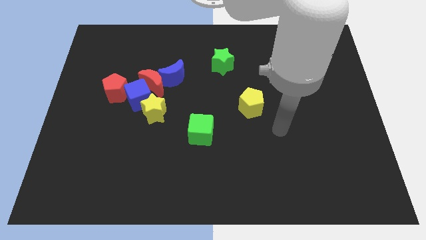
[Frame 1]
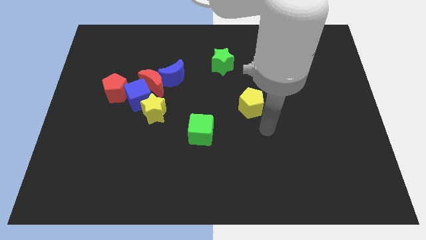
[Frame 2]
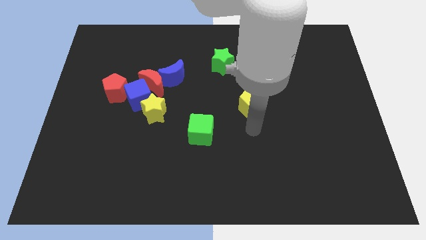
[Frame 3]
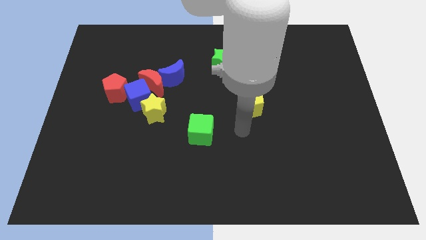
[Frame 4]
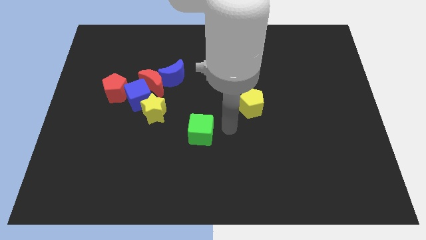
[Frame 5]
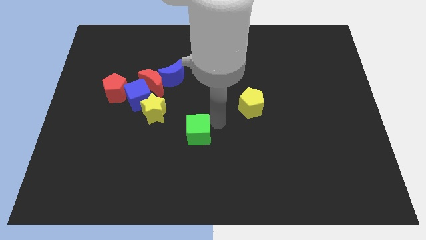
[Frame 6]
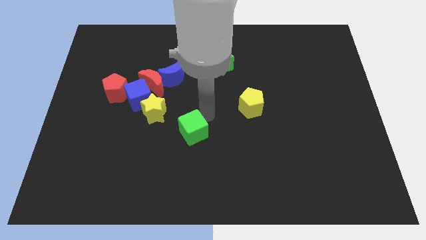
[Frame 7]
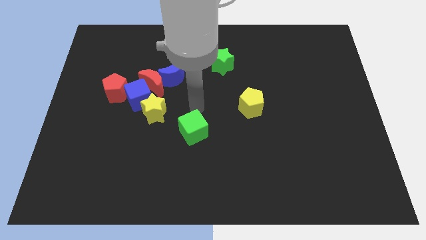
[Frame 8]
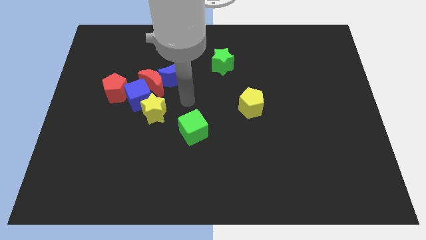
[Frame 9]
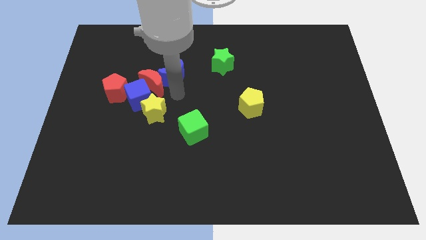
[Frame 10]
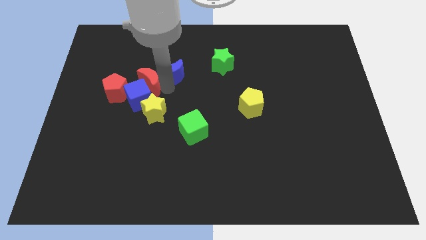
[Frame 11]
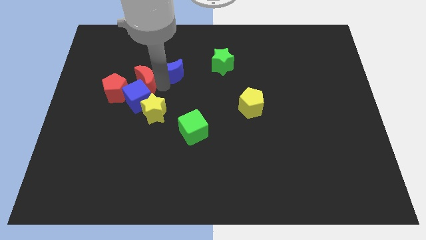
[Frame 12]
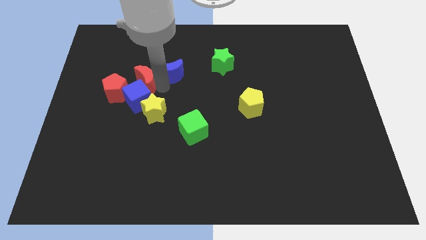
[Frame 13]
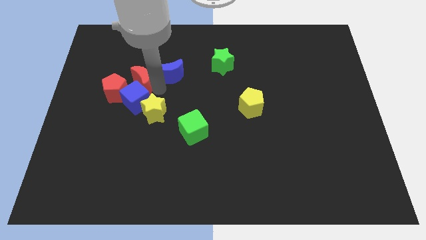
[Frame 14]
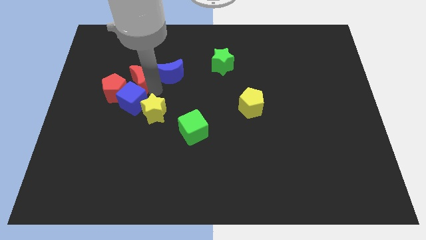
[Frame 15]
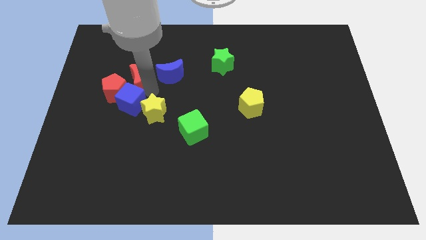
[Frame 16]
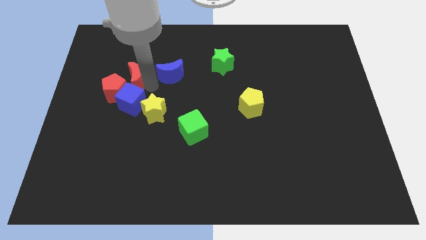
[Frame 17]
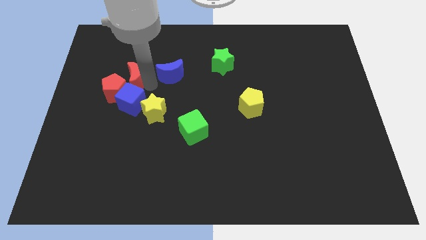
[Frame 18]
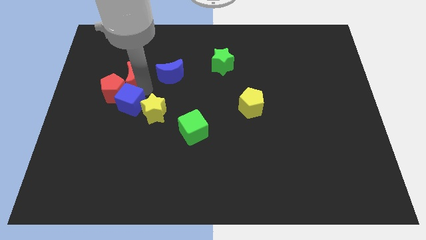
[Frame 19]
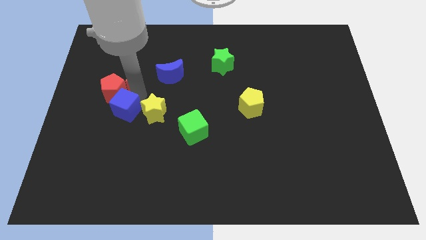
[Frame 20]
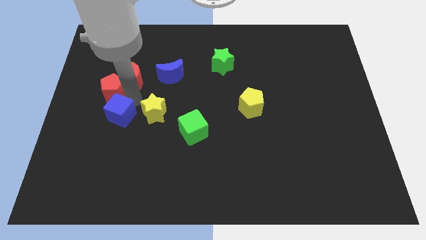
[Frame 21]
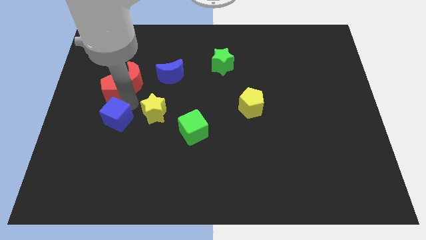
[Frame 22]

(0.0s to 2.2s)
move the blue cube away from the clump

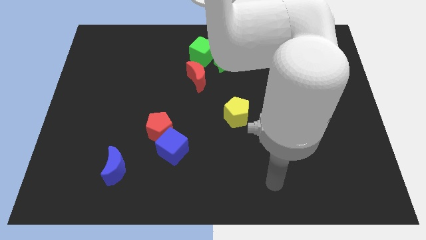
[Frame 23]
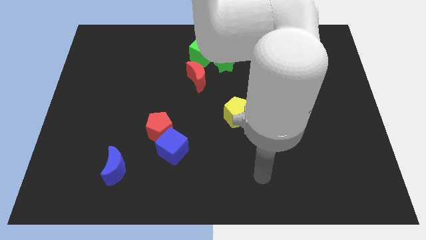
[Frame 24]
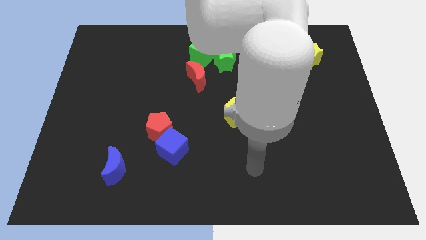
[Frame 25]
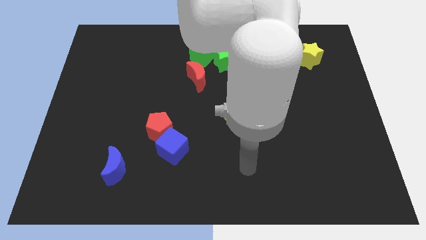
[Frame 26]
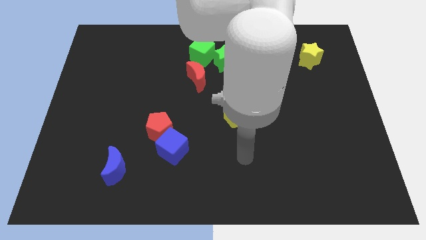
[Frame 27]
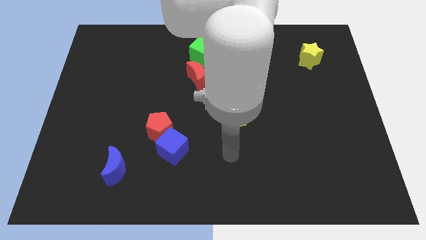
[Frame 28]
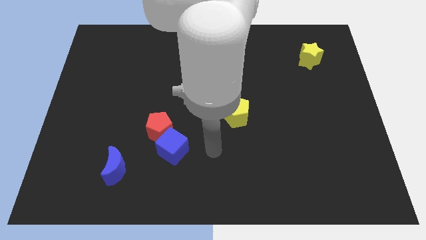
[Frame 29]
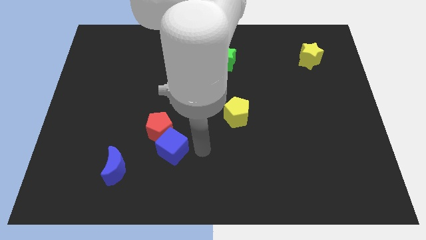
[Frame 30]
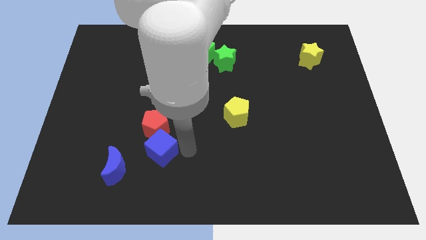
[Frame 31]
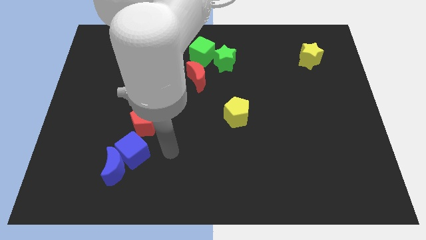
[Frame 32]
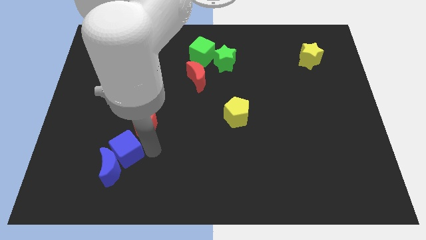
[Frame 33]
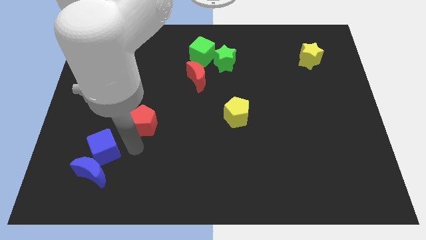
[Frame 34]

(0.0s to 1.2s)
pull the red pentagon apart from the blue cube

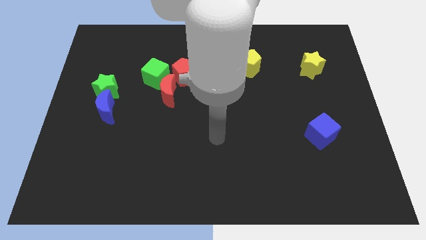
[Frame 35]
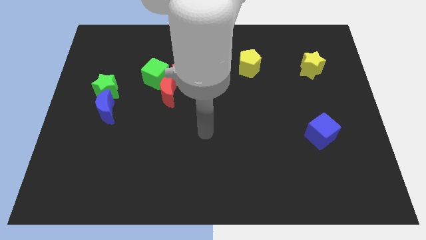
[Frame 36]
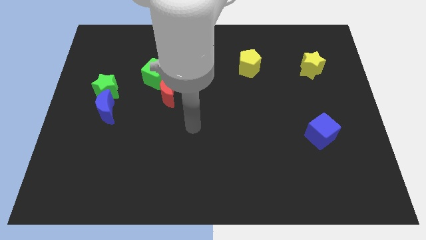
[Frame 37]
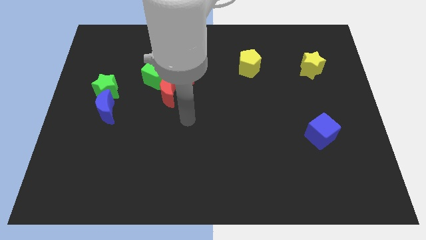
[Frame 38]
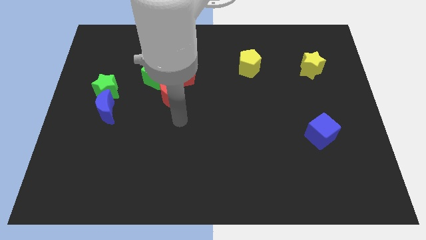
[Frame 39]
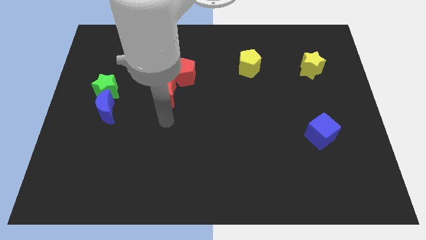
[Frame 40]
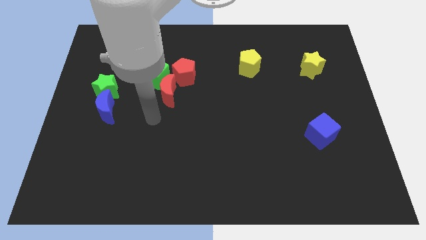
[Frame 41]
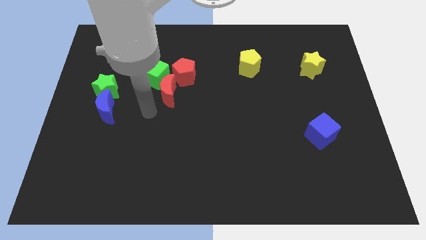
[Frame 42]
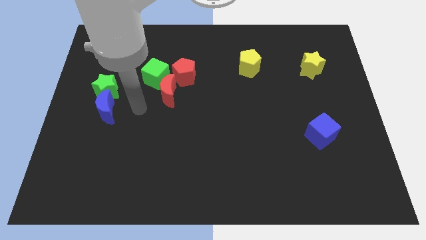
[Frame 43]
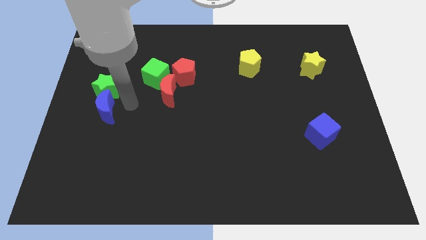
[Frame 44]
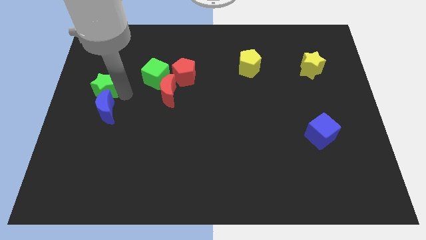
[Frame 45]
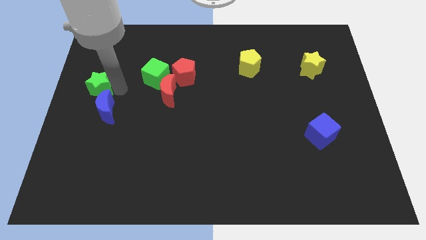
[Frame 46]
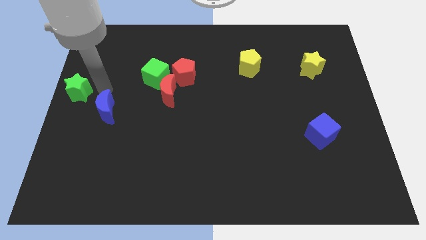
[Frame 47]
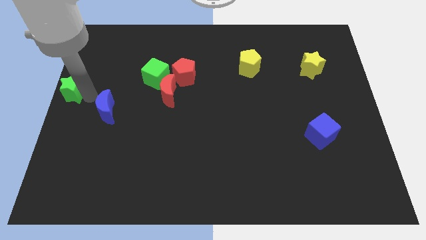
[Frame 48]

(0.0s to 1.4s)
pull the blue moon apart from the green star

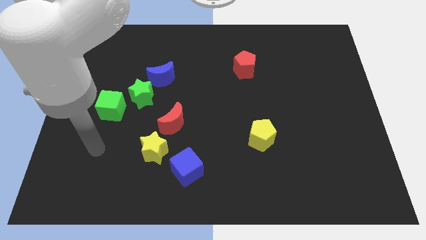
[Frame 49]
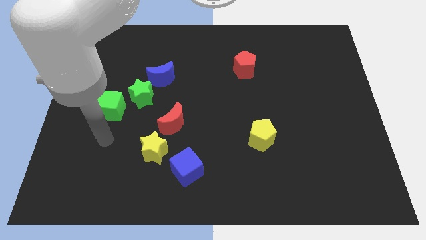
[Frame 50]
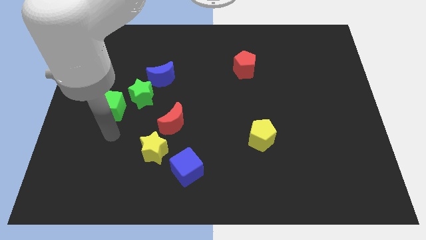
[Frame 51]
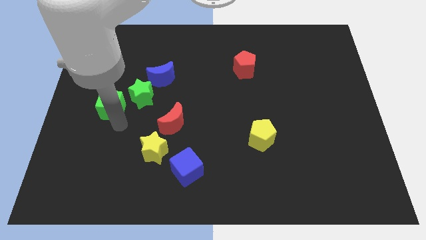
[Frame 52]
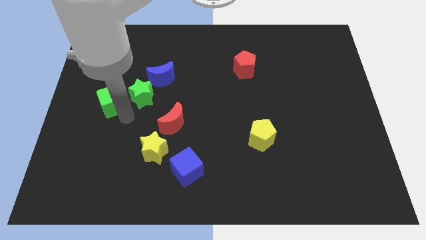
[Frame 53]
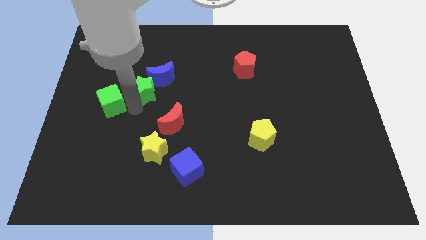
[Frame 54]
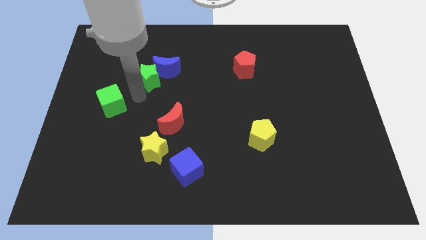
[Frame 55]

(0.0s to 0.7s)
pull the green cube apart from the green star

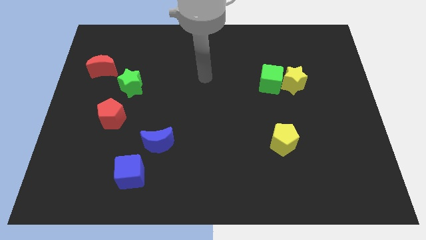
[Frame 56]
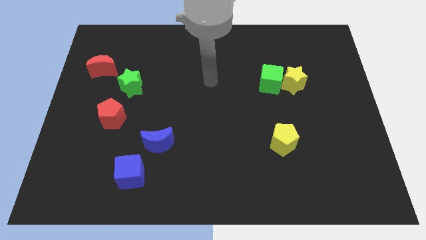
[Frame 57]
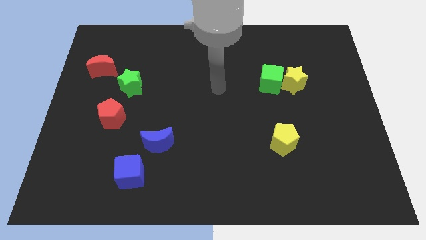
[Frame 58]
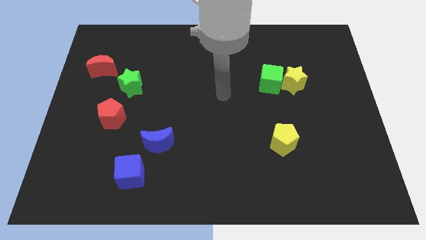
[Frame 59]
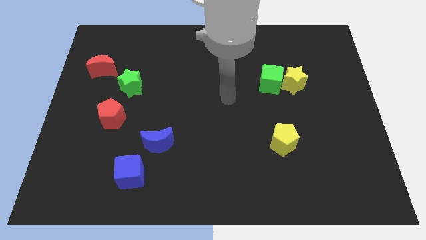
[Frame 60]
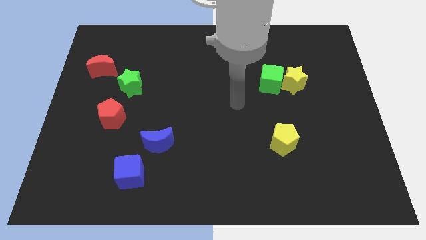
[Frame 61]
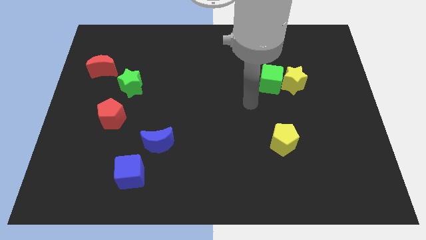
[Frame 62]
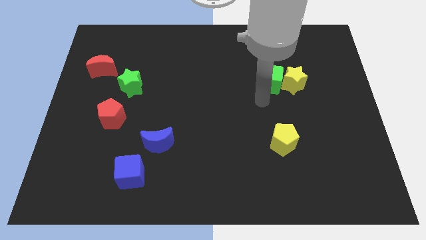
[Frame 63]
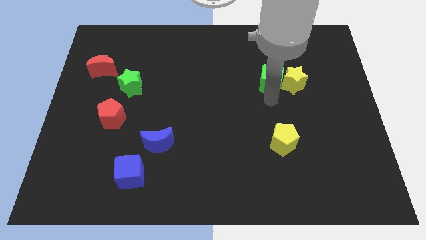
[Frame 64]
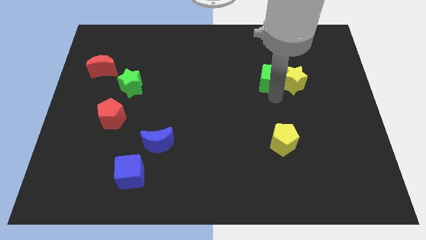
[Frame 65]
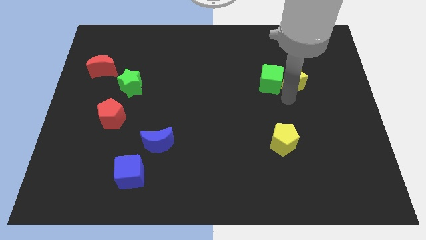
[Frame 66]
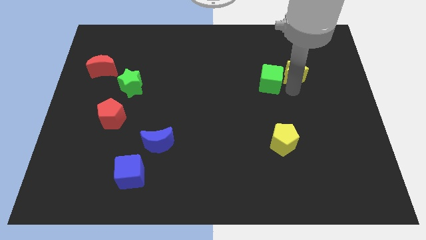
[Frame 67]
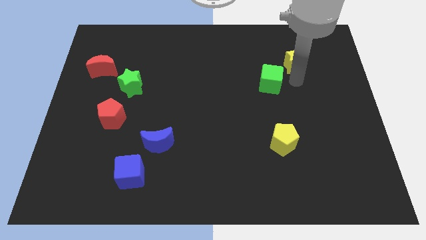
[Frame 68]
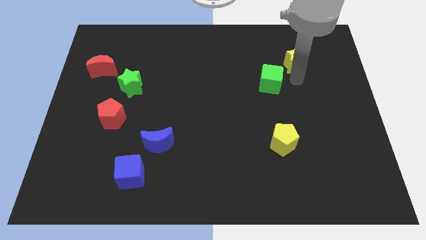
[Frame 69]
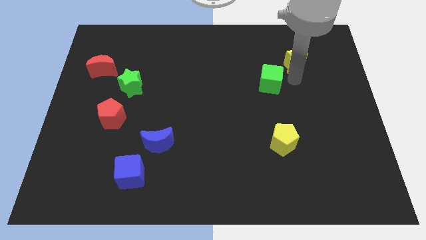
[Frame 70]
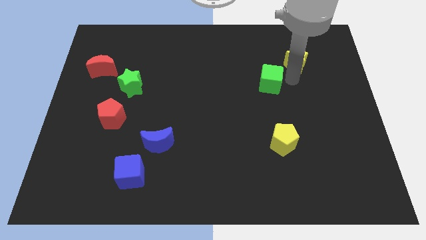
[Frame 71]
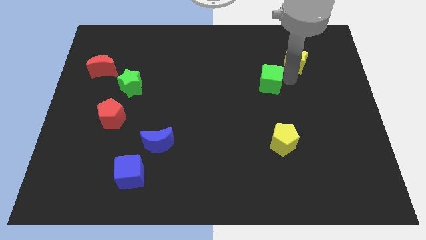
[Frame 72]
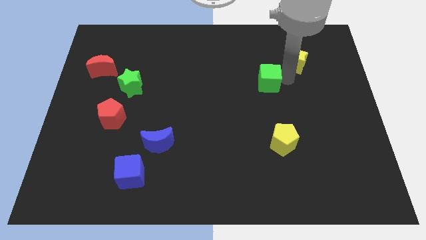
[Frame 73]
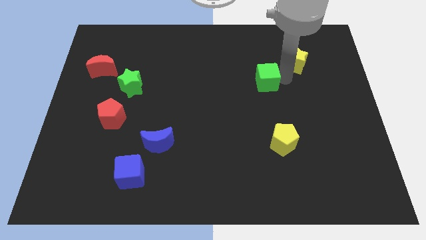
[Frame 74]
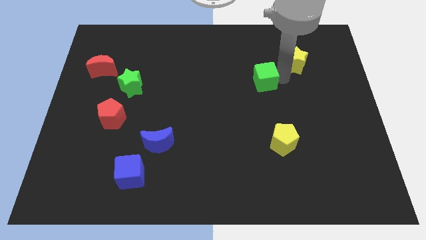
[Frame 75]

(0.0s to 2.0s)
separate the green cube from the yellow star

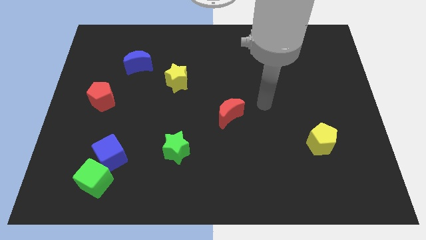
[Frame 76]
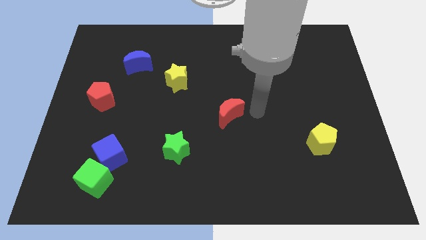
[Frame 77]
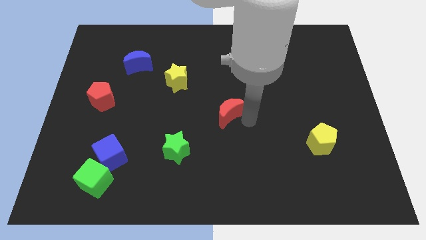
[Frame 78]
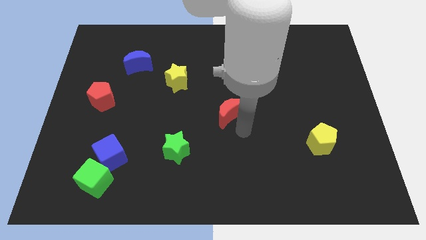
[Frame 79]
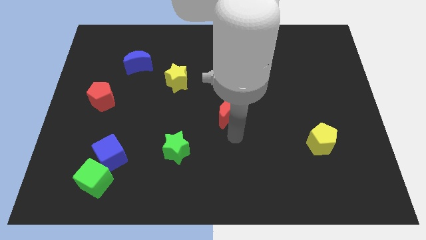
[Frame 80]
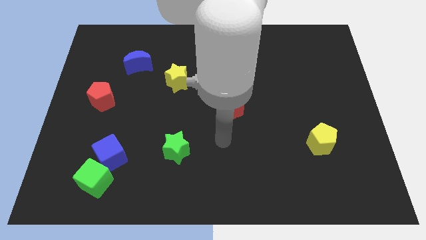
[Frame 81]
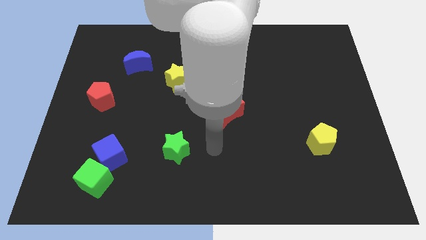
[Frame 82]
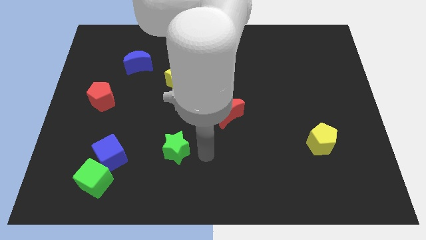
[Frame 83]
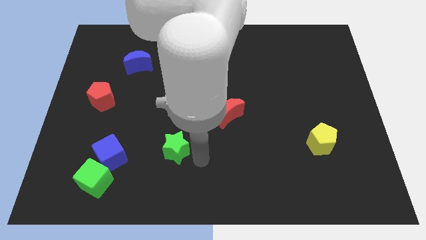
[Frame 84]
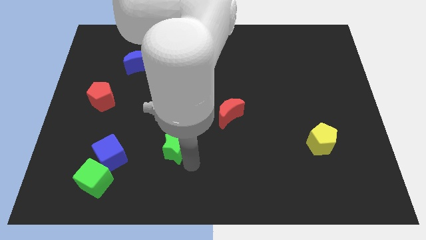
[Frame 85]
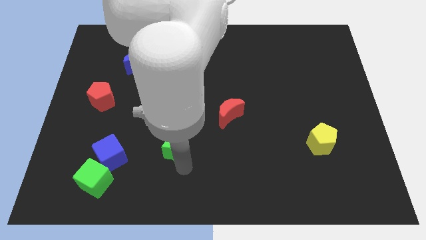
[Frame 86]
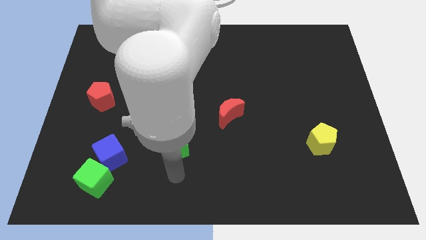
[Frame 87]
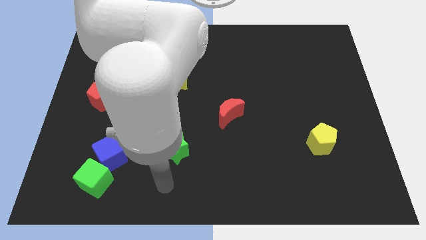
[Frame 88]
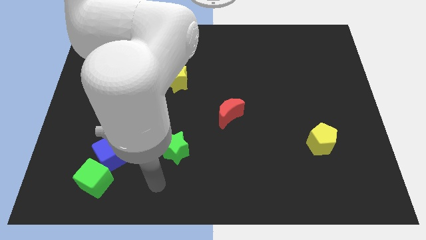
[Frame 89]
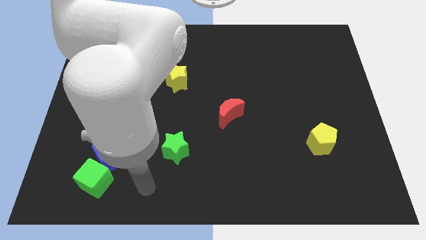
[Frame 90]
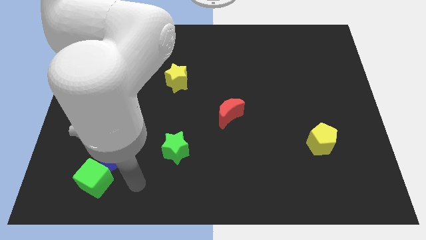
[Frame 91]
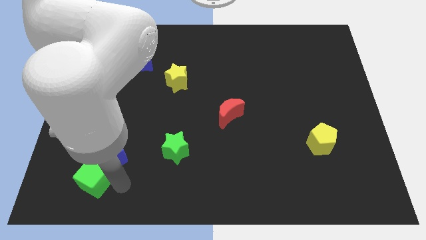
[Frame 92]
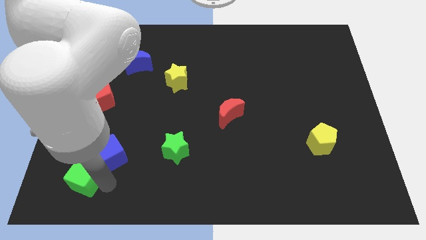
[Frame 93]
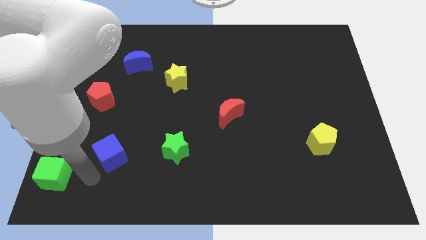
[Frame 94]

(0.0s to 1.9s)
pull the blue cube apart from the green cube
